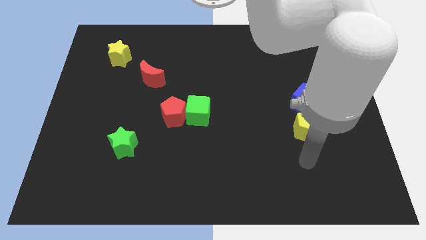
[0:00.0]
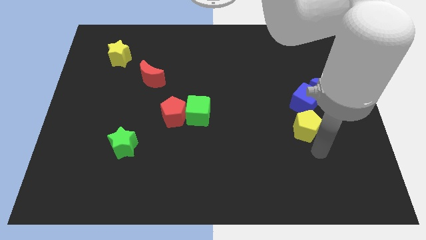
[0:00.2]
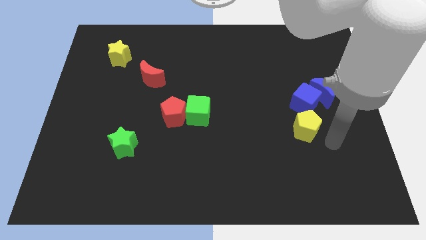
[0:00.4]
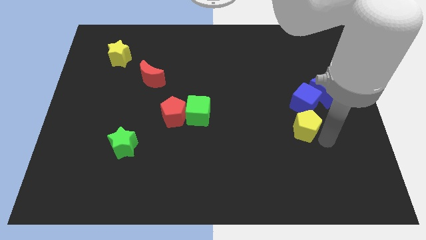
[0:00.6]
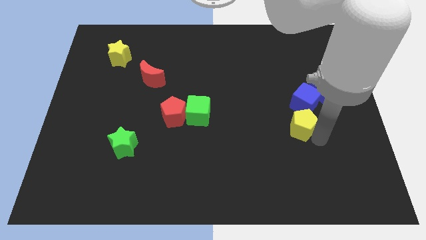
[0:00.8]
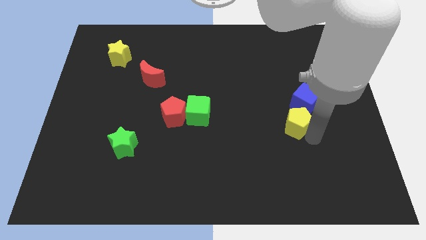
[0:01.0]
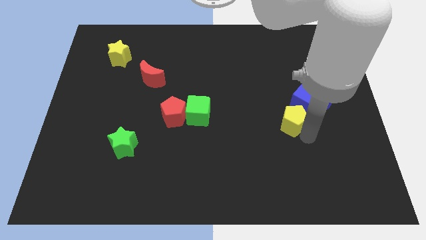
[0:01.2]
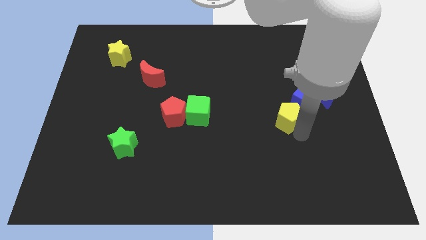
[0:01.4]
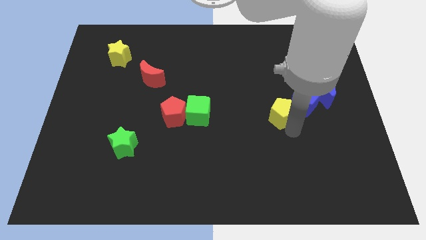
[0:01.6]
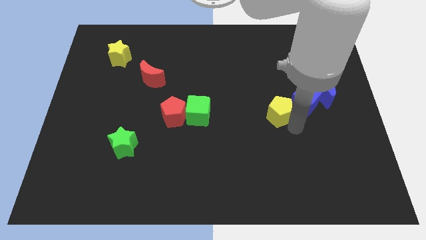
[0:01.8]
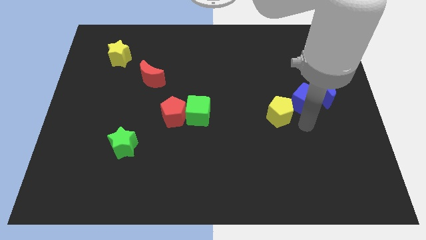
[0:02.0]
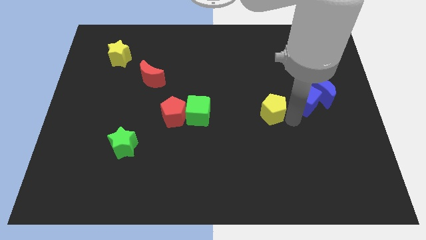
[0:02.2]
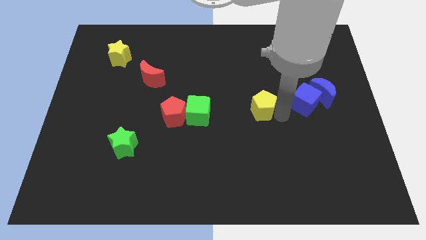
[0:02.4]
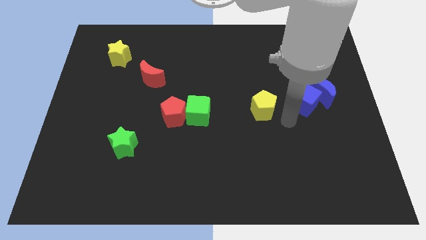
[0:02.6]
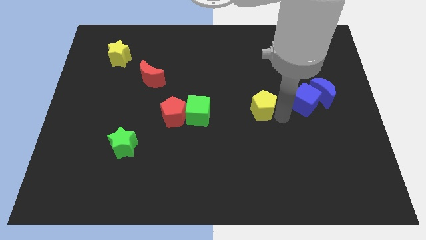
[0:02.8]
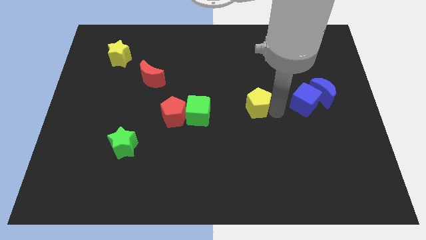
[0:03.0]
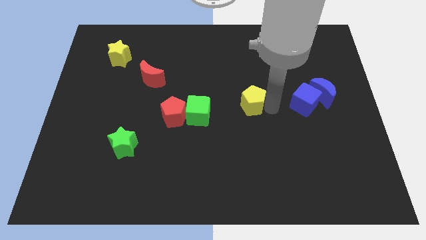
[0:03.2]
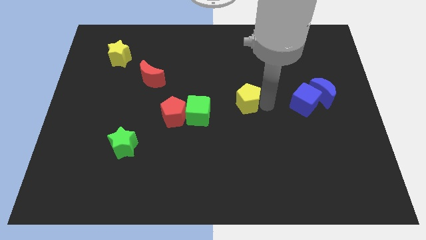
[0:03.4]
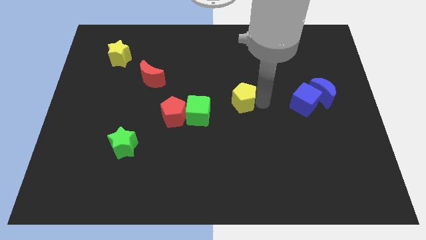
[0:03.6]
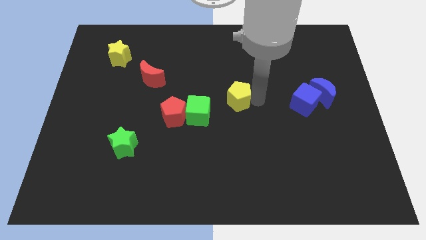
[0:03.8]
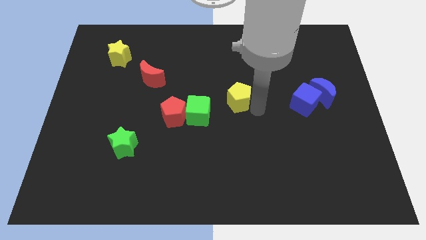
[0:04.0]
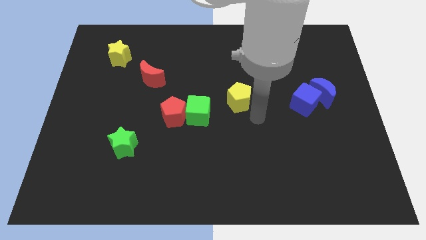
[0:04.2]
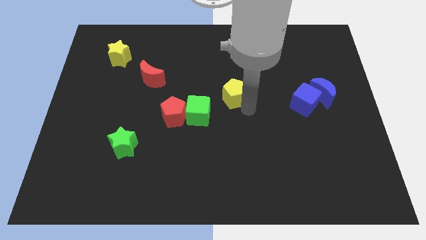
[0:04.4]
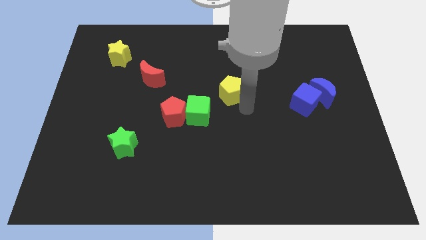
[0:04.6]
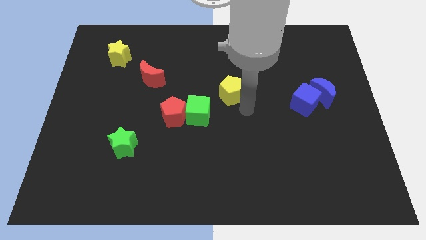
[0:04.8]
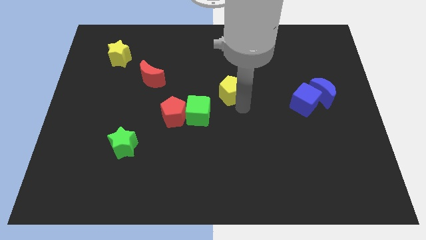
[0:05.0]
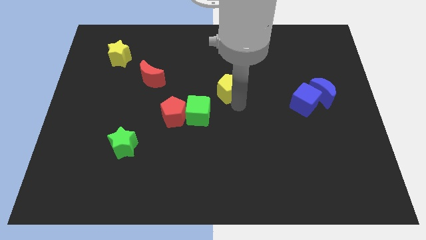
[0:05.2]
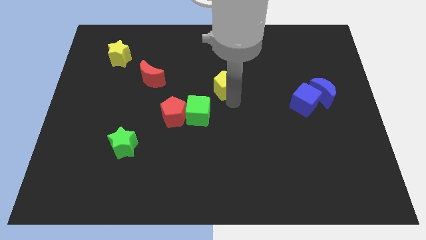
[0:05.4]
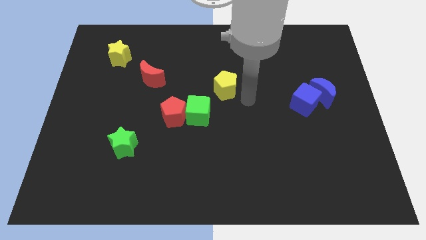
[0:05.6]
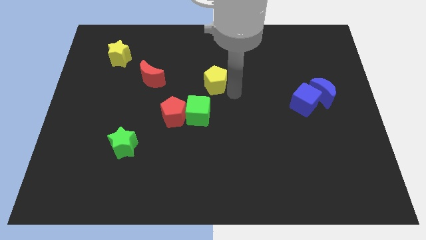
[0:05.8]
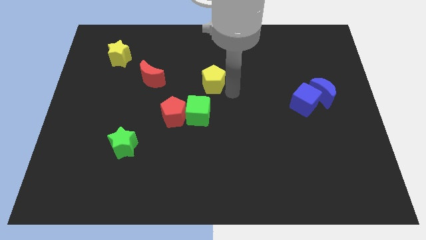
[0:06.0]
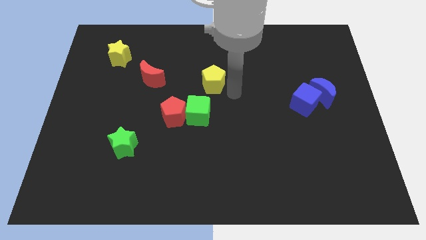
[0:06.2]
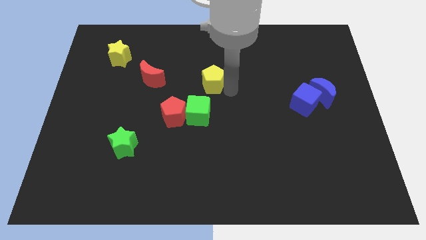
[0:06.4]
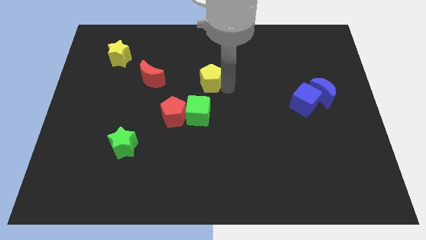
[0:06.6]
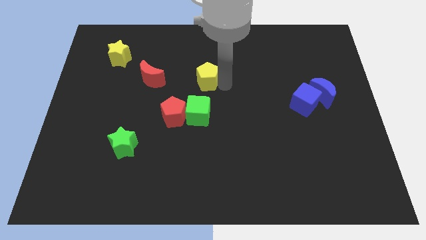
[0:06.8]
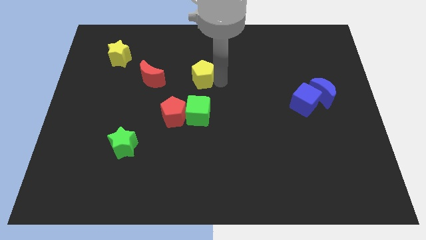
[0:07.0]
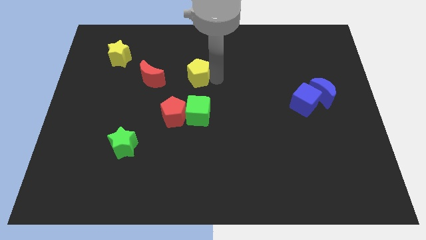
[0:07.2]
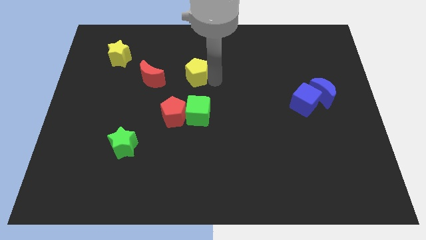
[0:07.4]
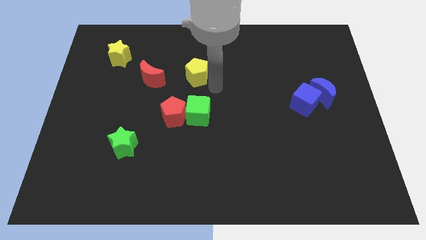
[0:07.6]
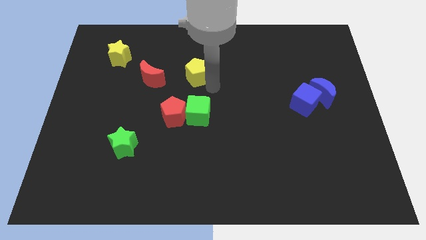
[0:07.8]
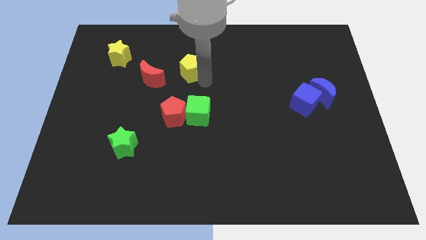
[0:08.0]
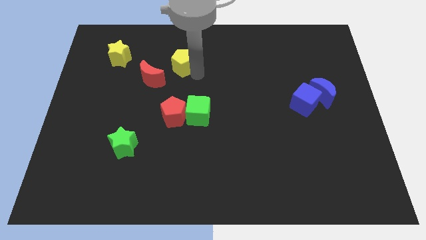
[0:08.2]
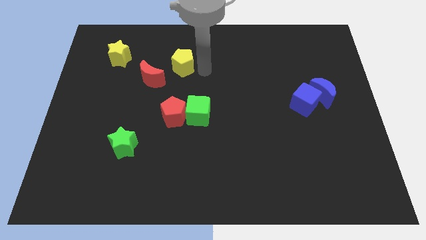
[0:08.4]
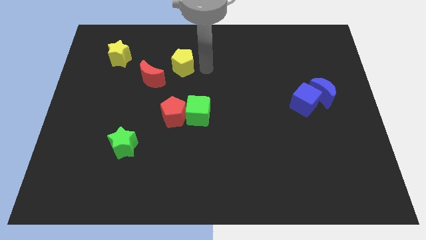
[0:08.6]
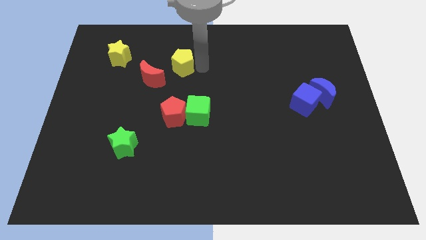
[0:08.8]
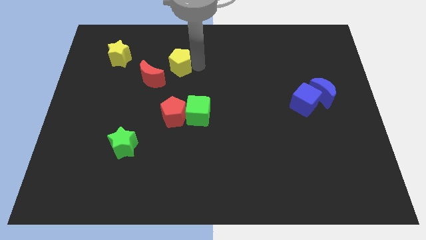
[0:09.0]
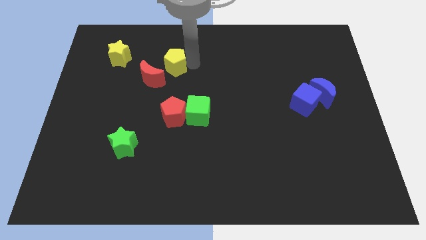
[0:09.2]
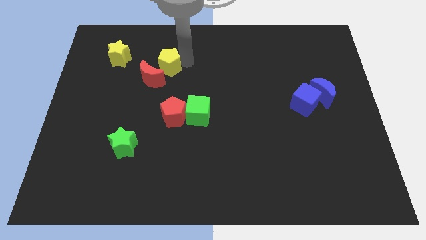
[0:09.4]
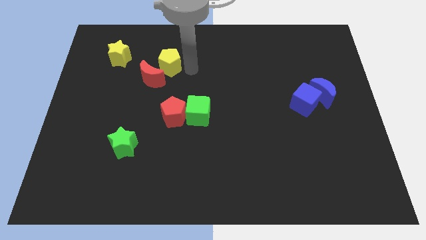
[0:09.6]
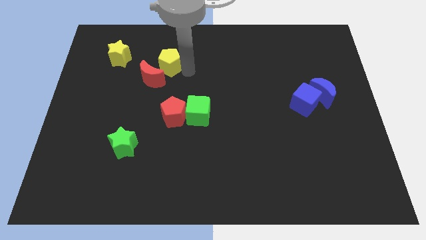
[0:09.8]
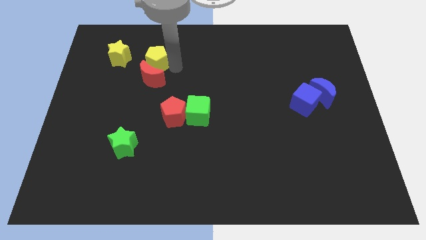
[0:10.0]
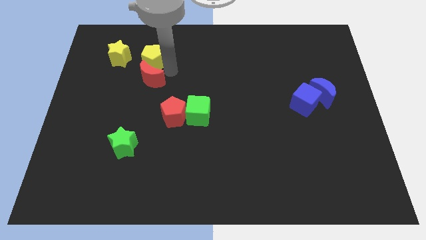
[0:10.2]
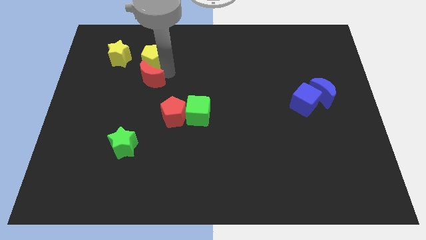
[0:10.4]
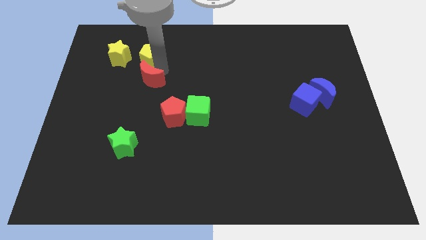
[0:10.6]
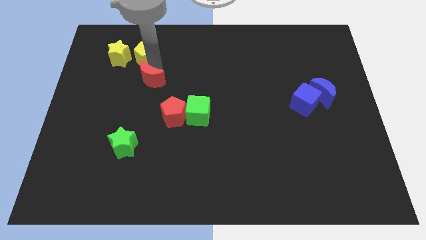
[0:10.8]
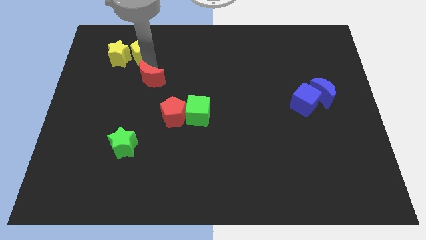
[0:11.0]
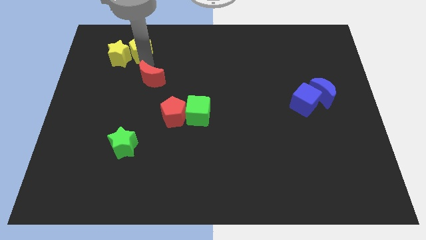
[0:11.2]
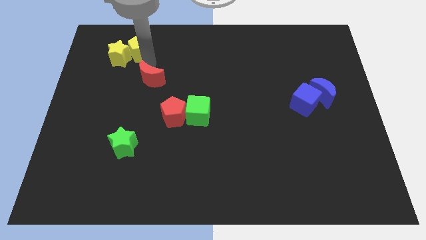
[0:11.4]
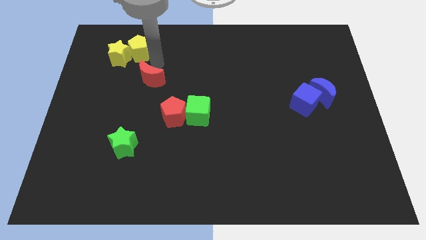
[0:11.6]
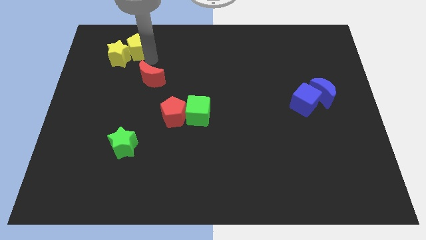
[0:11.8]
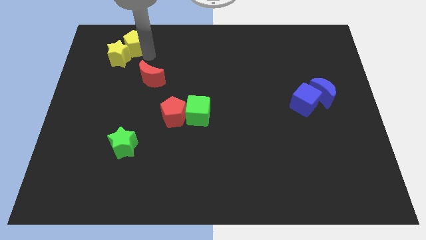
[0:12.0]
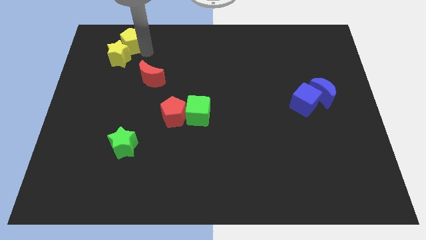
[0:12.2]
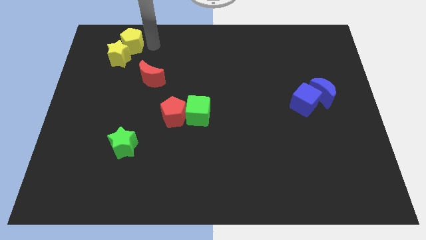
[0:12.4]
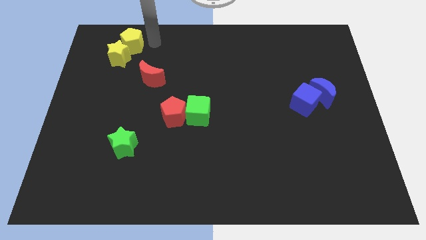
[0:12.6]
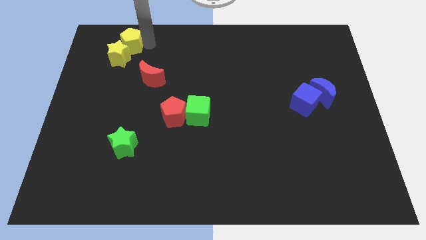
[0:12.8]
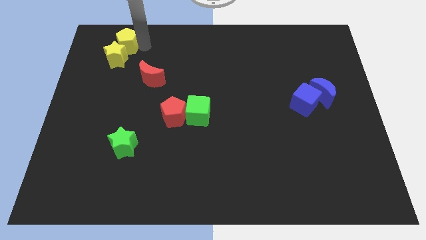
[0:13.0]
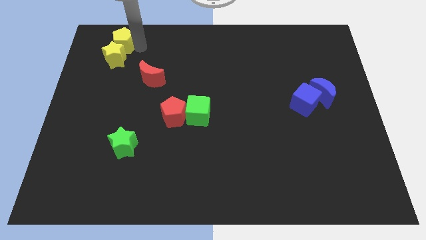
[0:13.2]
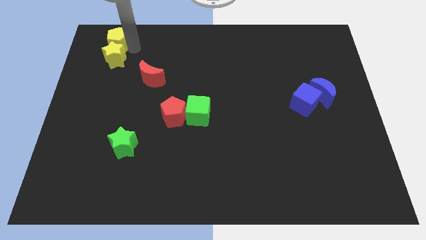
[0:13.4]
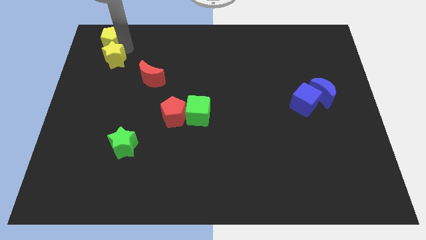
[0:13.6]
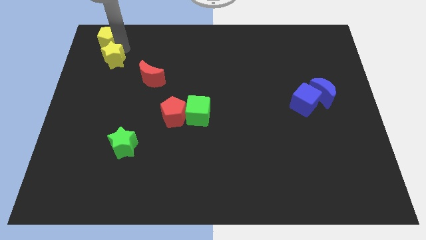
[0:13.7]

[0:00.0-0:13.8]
slide the yellow pentagon to the top left
